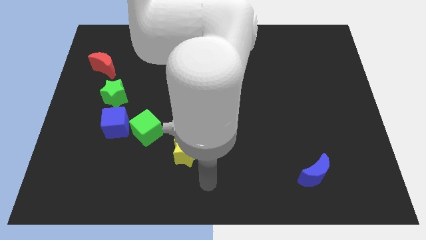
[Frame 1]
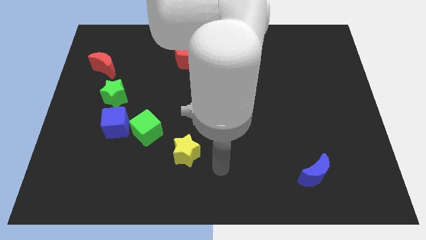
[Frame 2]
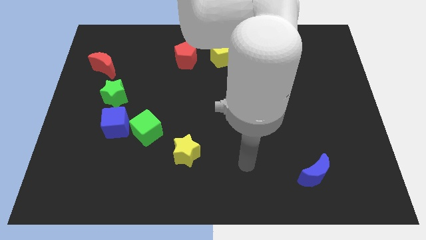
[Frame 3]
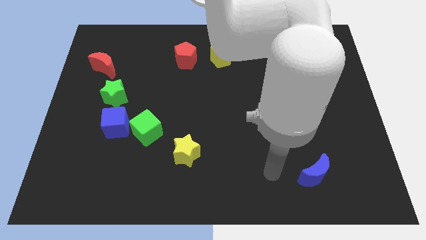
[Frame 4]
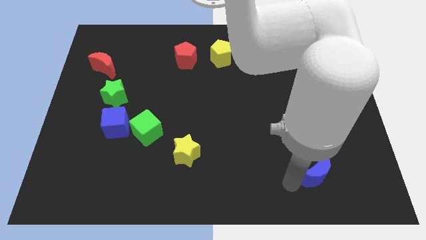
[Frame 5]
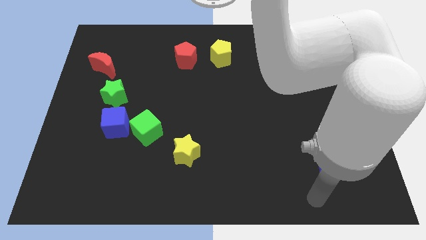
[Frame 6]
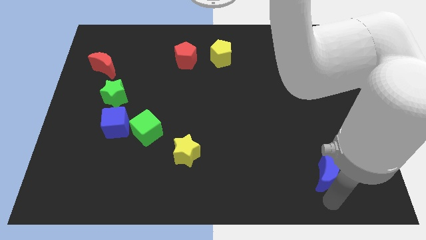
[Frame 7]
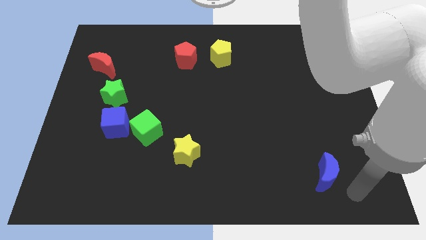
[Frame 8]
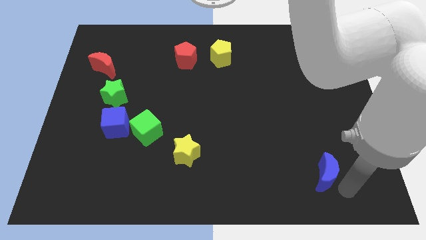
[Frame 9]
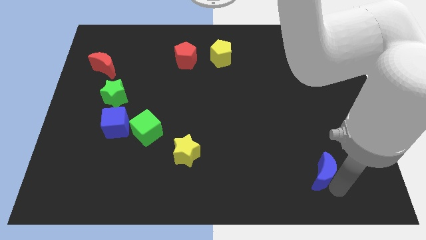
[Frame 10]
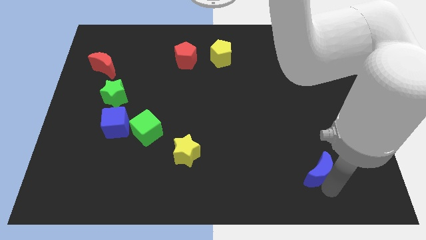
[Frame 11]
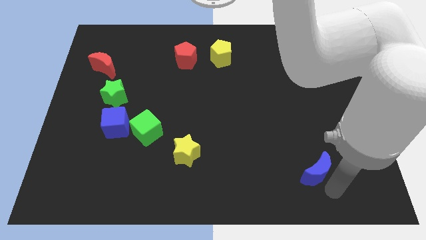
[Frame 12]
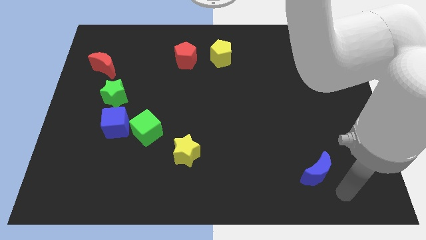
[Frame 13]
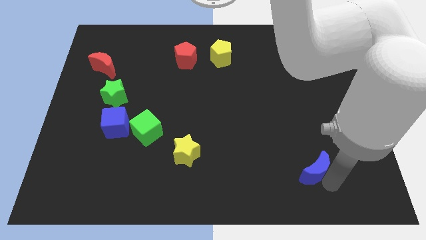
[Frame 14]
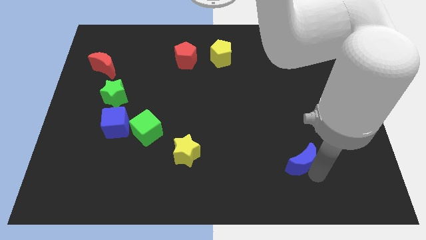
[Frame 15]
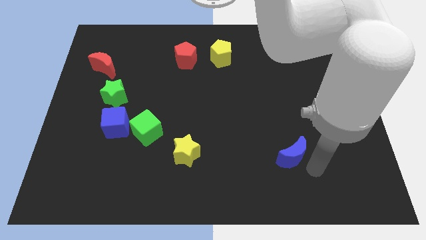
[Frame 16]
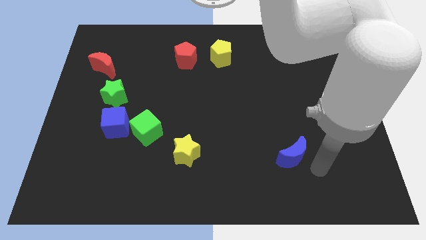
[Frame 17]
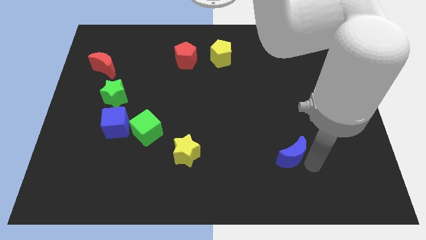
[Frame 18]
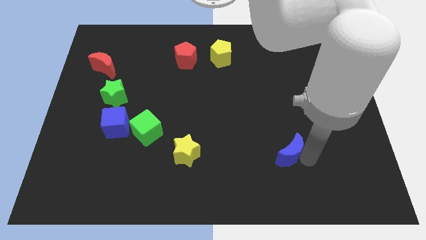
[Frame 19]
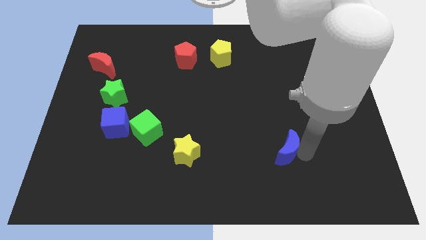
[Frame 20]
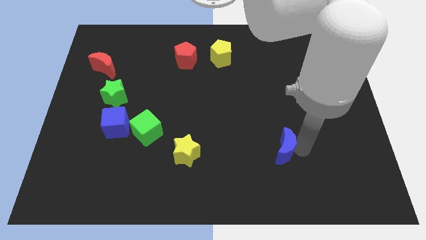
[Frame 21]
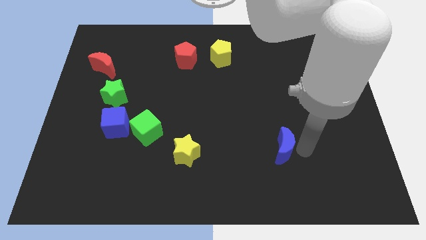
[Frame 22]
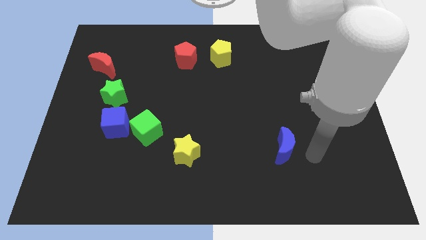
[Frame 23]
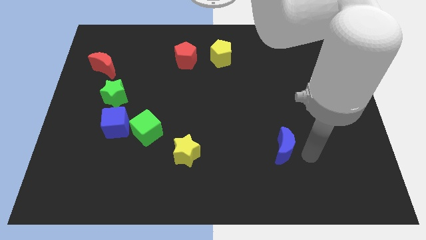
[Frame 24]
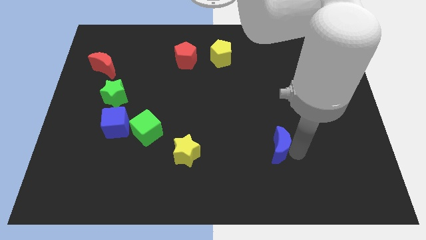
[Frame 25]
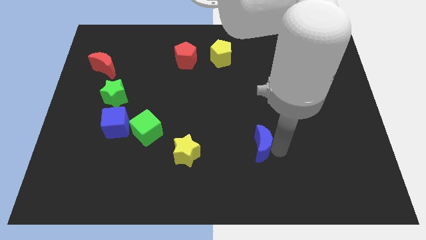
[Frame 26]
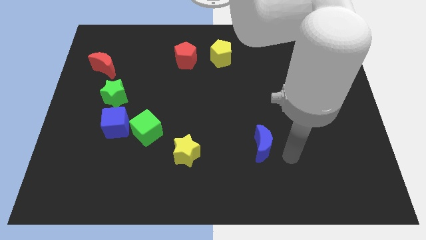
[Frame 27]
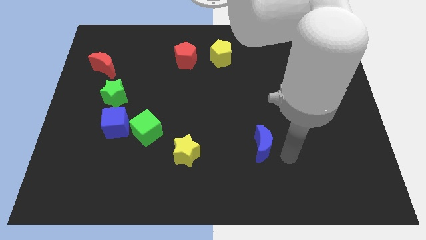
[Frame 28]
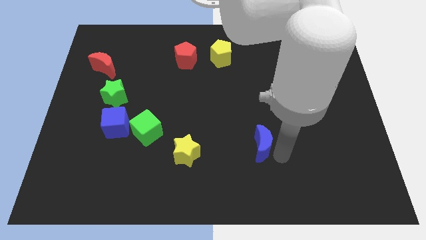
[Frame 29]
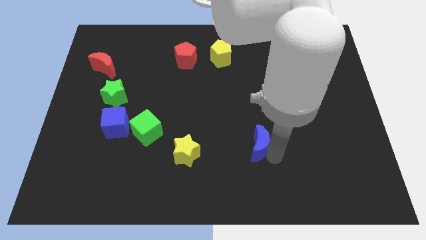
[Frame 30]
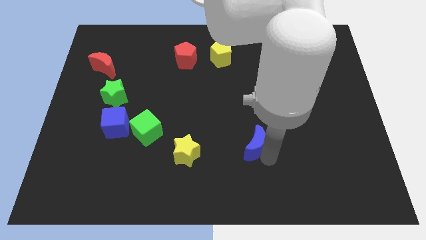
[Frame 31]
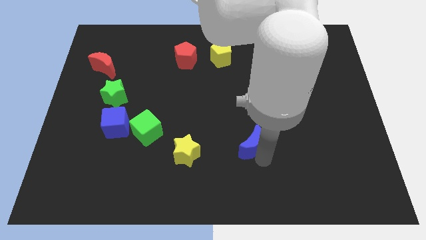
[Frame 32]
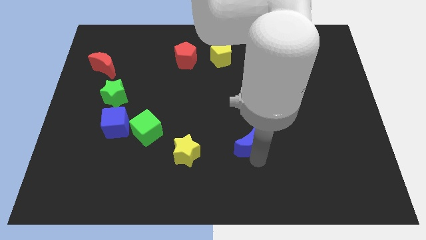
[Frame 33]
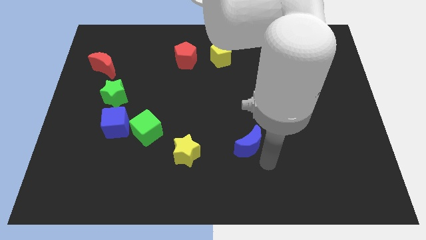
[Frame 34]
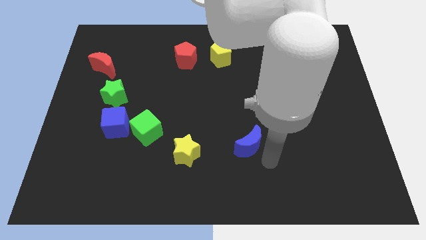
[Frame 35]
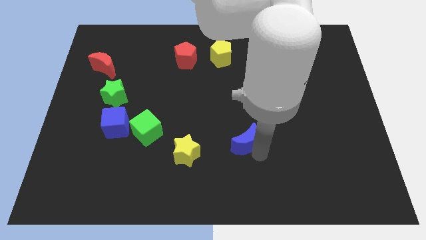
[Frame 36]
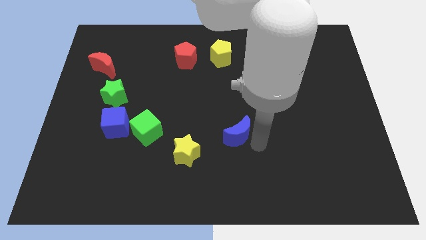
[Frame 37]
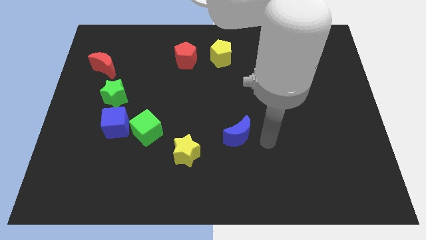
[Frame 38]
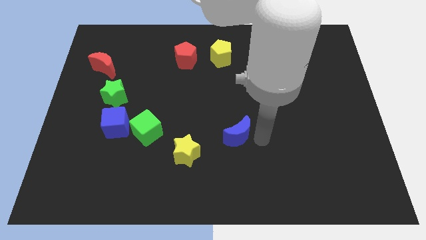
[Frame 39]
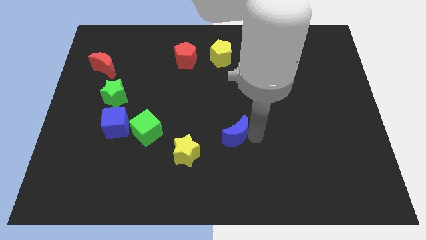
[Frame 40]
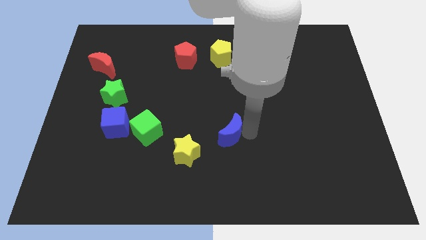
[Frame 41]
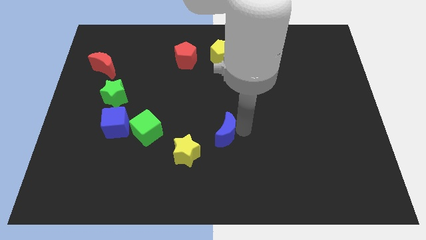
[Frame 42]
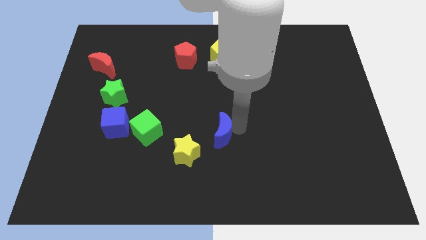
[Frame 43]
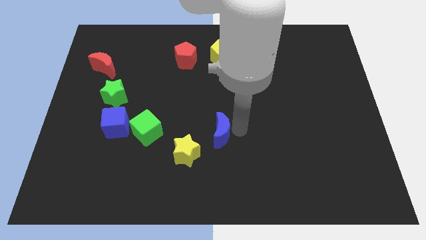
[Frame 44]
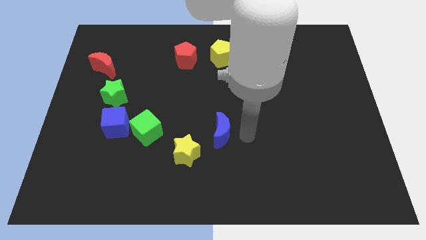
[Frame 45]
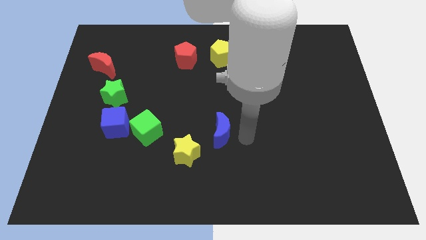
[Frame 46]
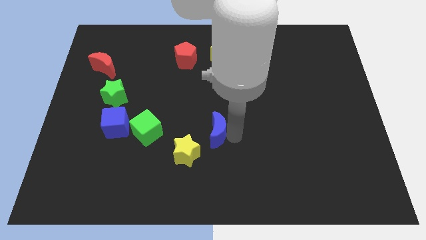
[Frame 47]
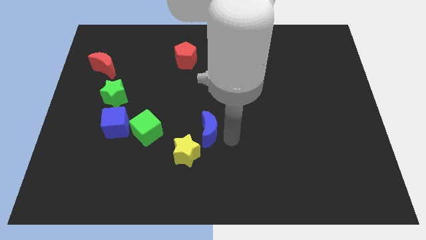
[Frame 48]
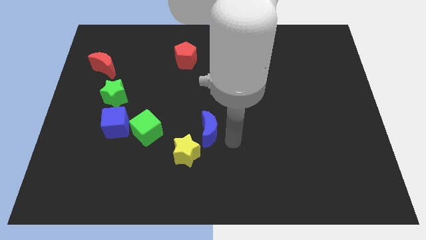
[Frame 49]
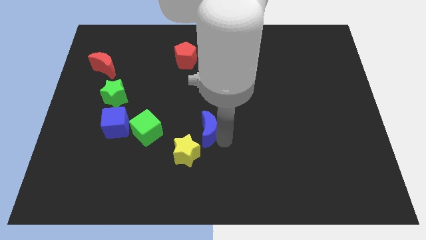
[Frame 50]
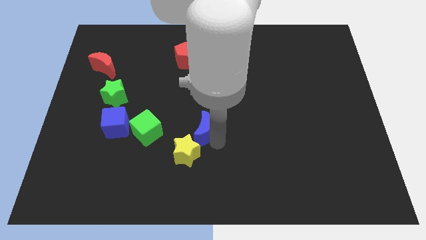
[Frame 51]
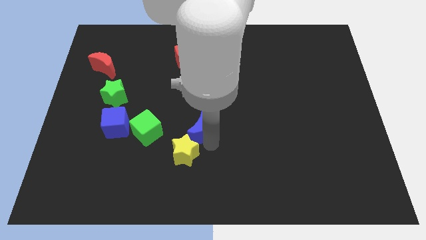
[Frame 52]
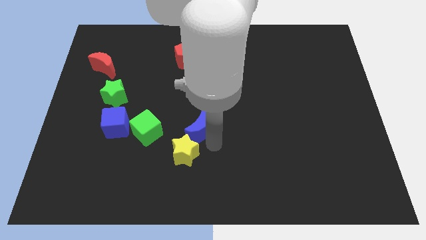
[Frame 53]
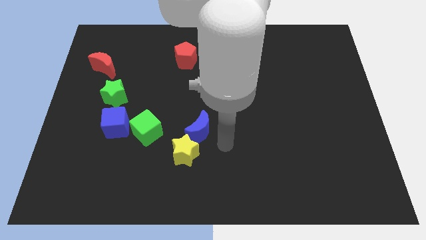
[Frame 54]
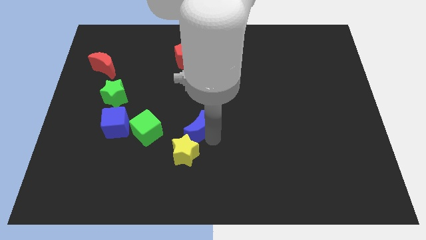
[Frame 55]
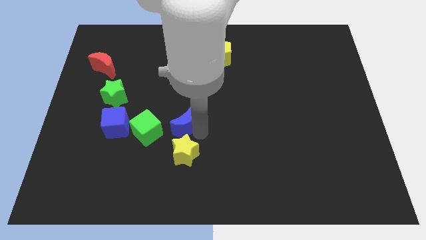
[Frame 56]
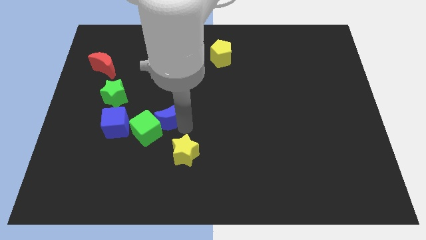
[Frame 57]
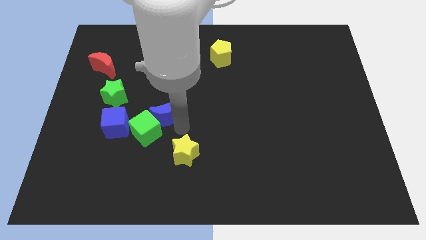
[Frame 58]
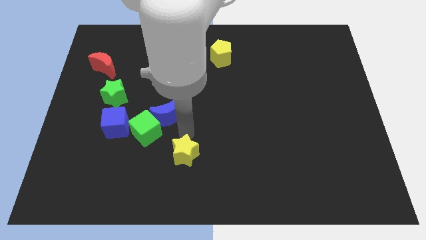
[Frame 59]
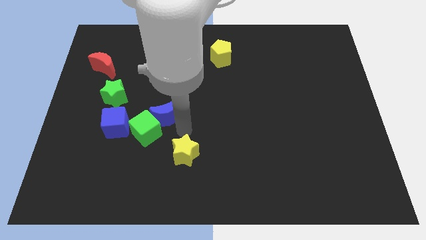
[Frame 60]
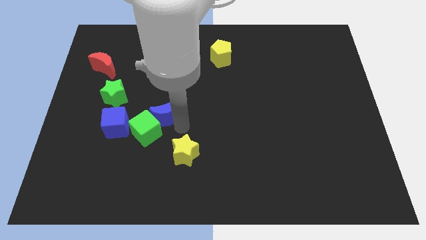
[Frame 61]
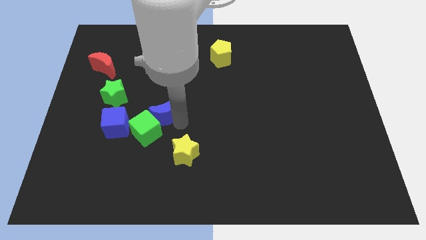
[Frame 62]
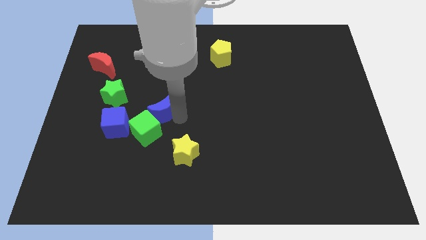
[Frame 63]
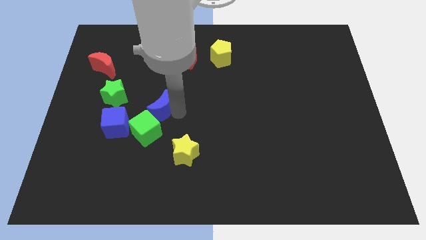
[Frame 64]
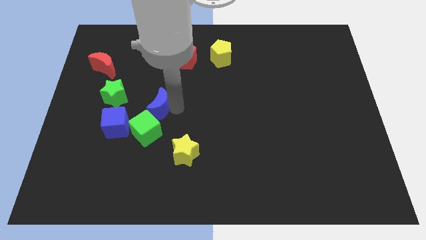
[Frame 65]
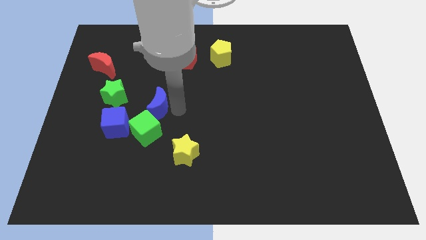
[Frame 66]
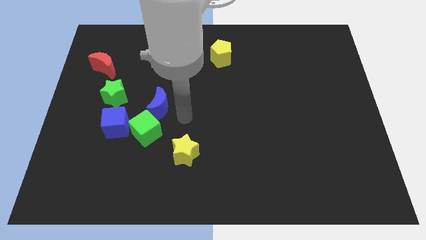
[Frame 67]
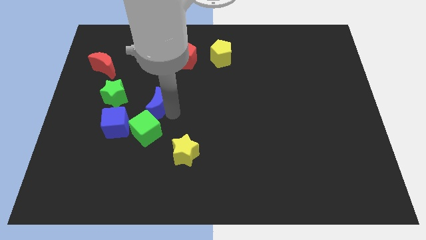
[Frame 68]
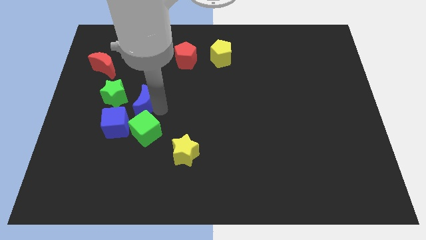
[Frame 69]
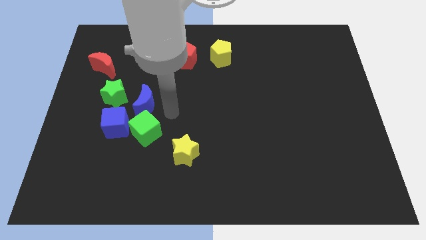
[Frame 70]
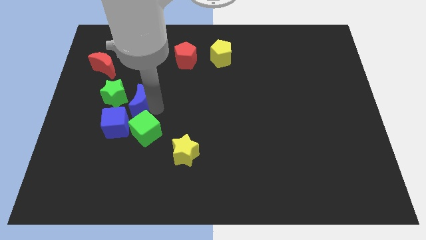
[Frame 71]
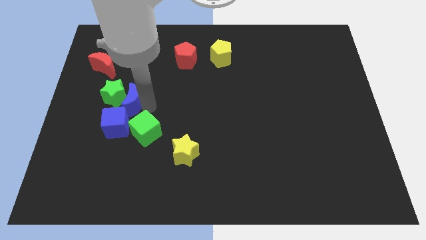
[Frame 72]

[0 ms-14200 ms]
put the blue moon next to the green star
